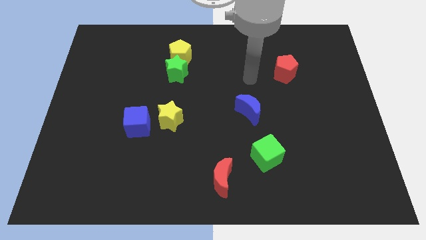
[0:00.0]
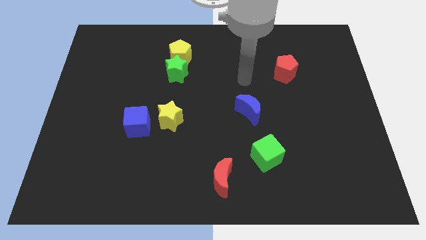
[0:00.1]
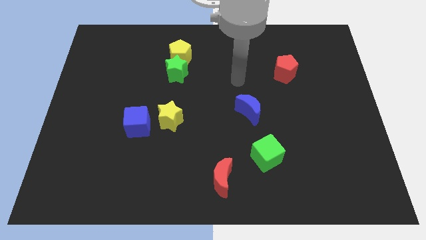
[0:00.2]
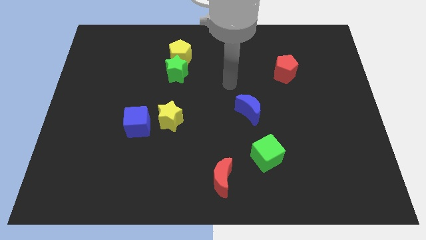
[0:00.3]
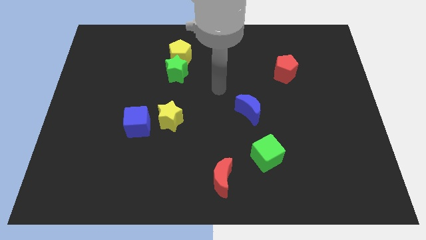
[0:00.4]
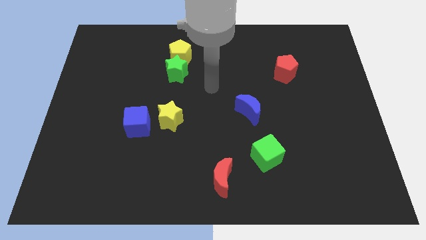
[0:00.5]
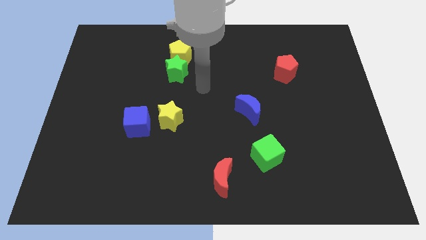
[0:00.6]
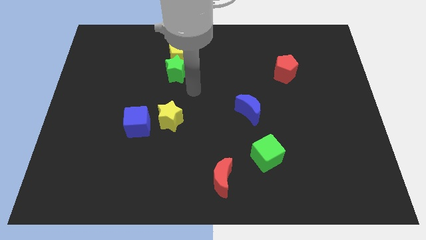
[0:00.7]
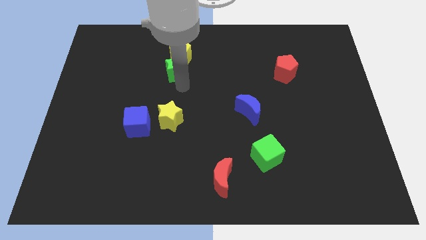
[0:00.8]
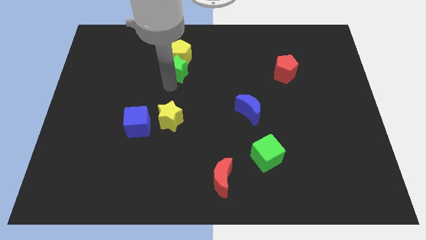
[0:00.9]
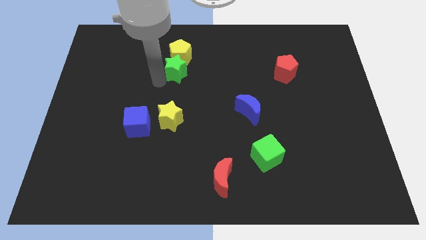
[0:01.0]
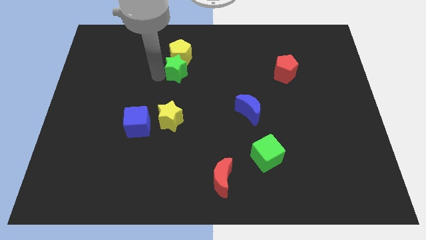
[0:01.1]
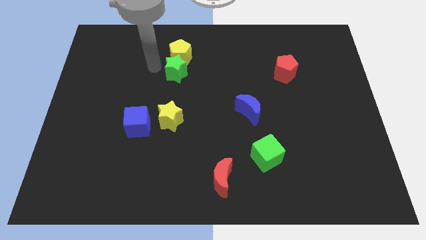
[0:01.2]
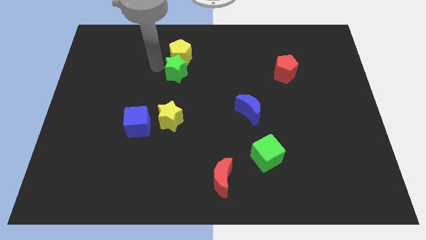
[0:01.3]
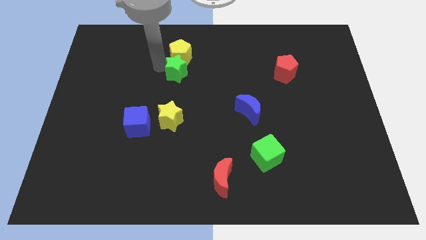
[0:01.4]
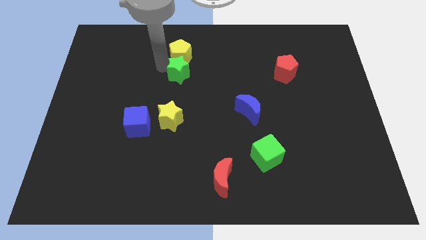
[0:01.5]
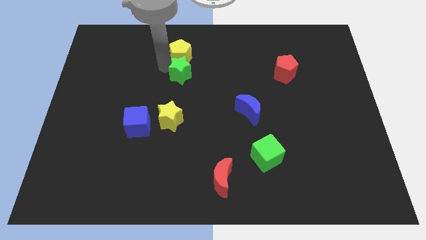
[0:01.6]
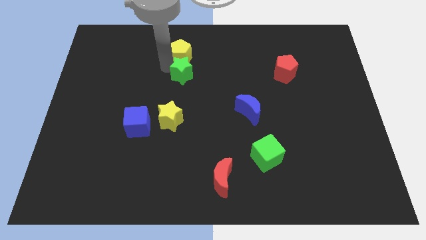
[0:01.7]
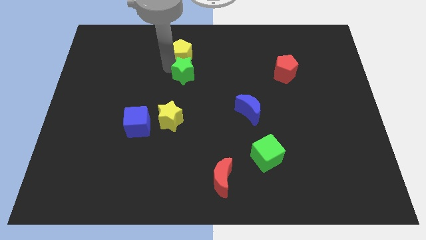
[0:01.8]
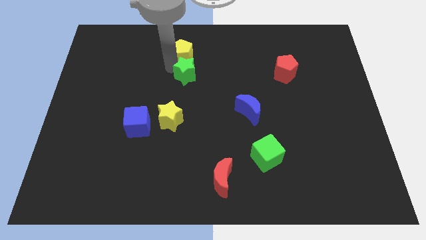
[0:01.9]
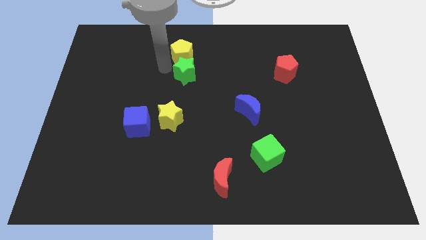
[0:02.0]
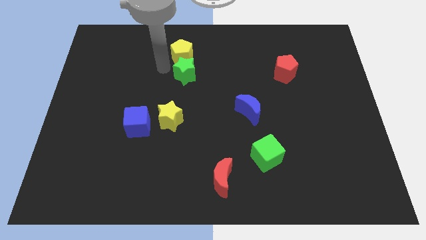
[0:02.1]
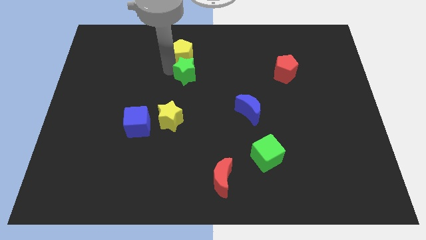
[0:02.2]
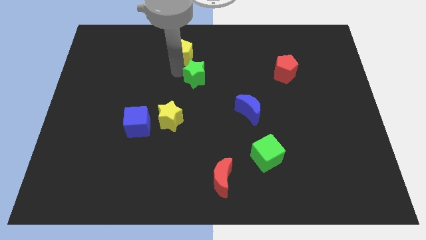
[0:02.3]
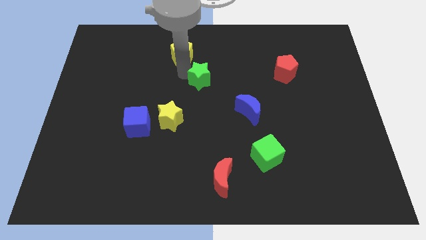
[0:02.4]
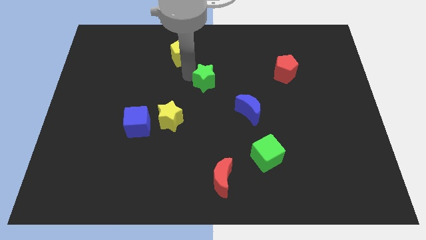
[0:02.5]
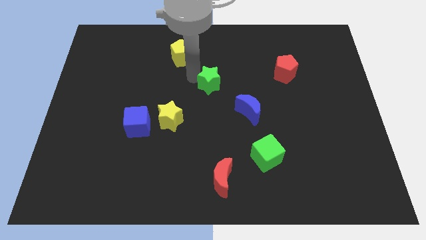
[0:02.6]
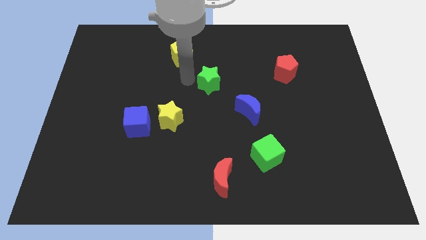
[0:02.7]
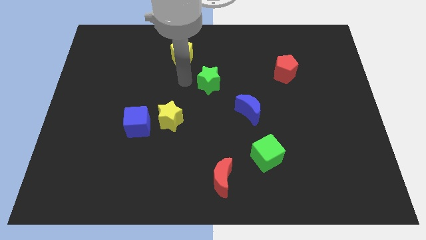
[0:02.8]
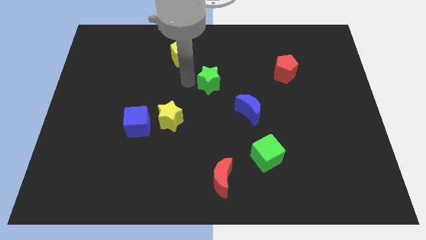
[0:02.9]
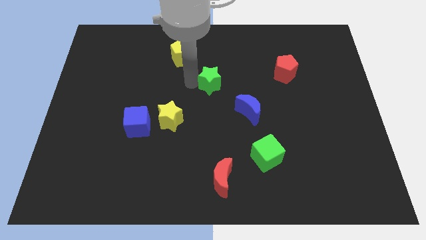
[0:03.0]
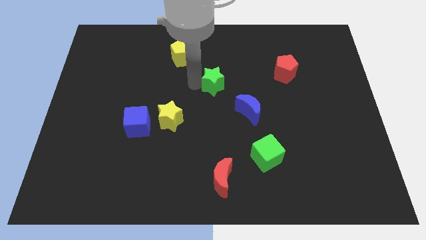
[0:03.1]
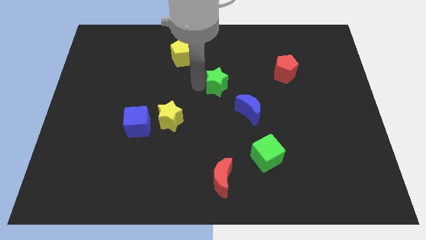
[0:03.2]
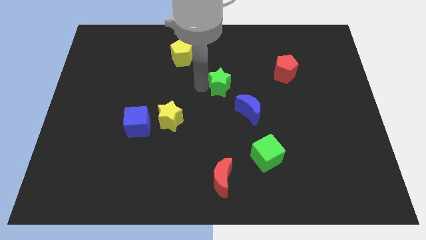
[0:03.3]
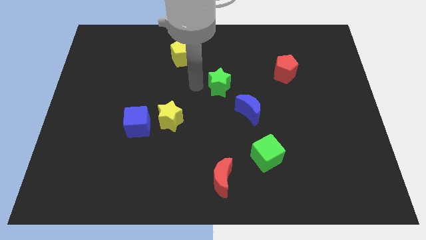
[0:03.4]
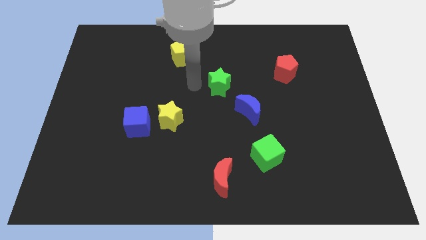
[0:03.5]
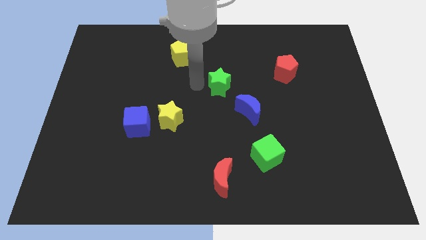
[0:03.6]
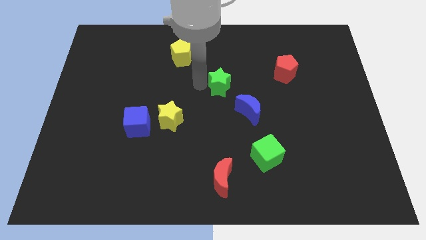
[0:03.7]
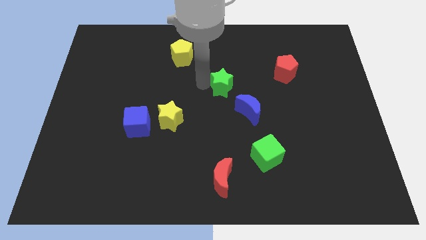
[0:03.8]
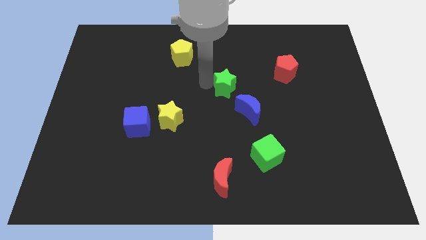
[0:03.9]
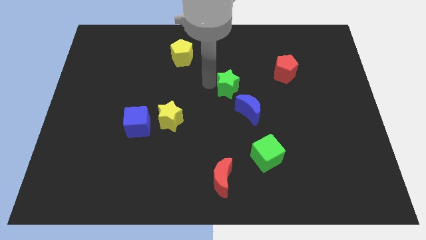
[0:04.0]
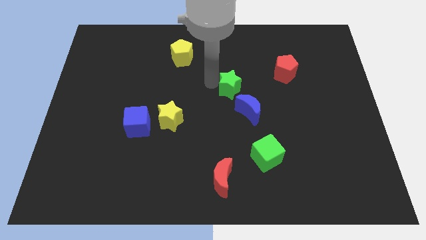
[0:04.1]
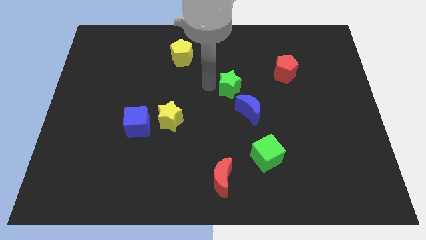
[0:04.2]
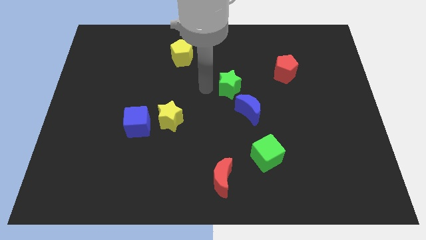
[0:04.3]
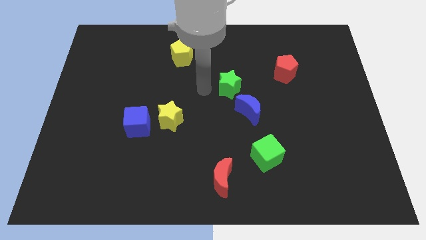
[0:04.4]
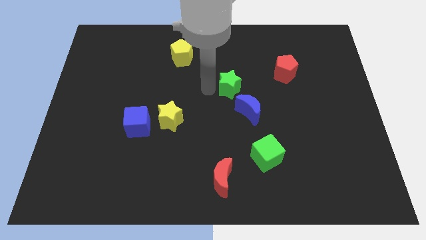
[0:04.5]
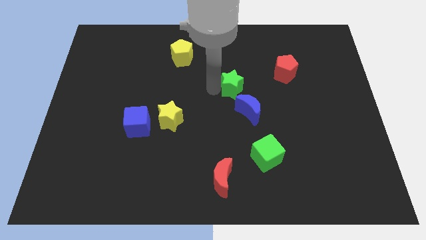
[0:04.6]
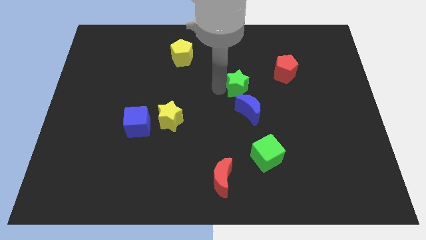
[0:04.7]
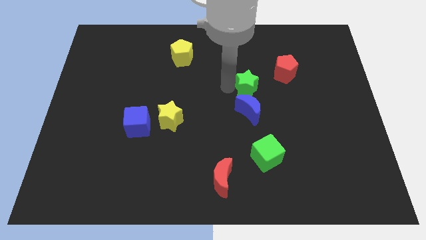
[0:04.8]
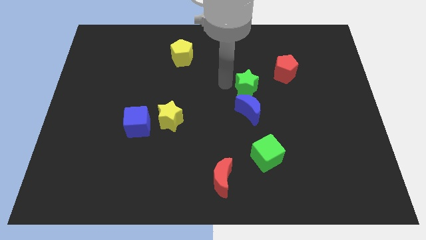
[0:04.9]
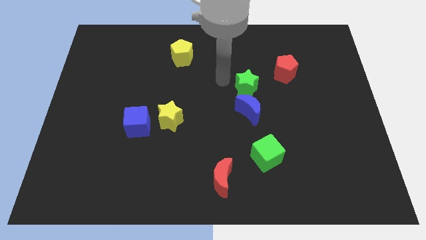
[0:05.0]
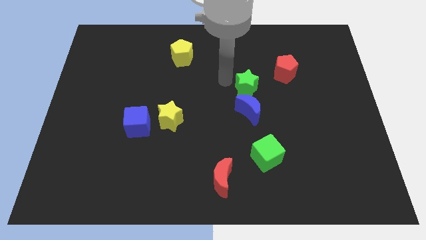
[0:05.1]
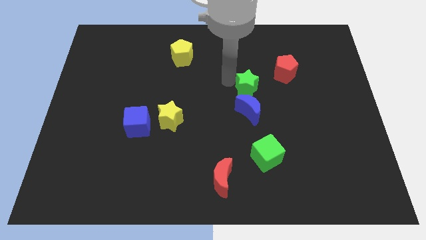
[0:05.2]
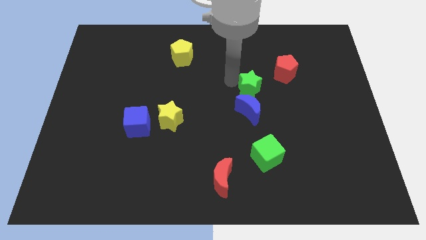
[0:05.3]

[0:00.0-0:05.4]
slide the green star to the top right of the blue moon

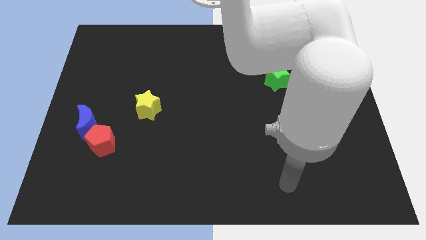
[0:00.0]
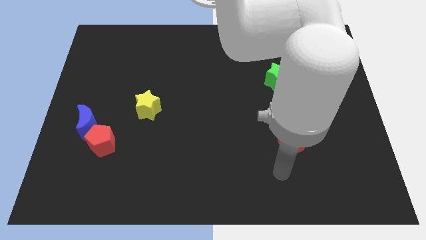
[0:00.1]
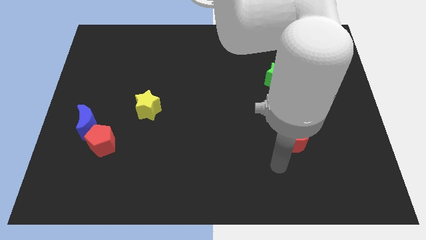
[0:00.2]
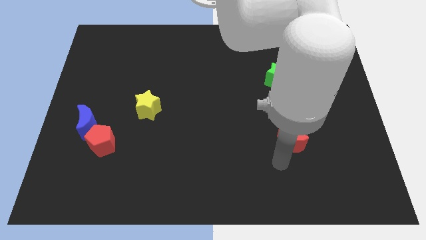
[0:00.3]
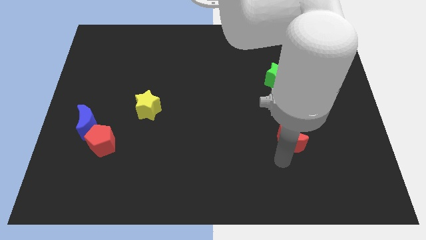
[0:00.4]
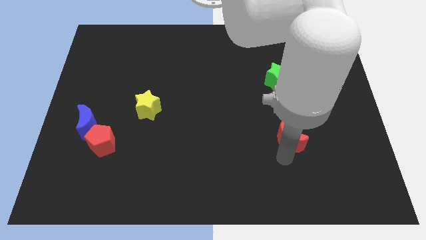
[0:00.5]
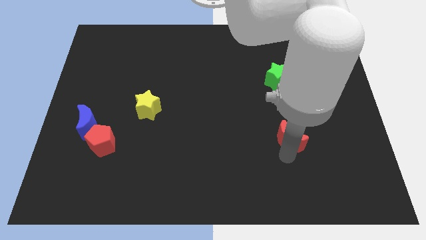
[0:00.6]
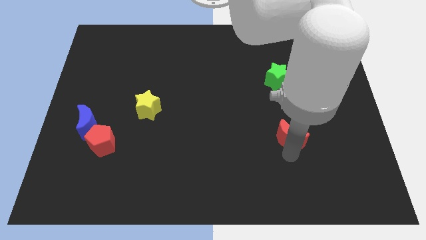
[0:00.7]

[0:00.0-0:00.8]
push the red moon diagonally down and to the left of the yellow pentagon
